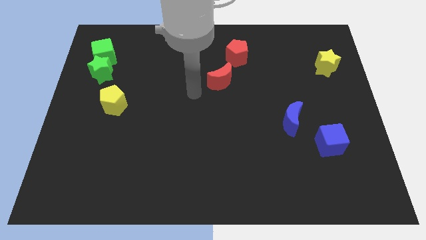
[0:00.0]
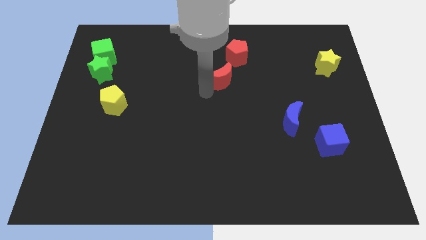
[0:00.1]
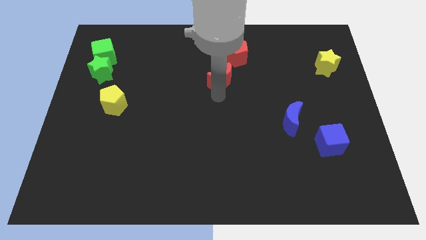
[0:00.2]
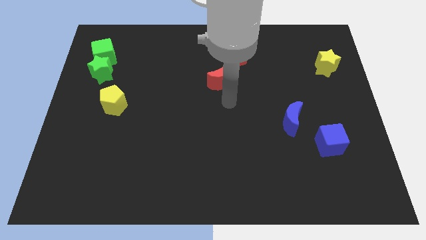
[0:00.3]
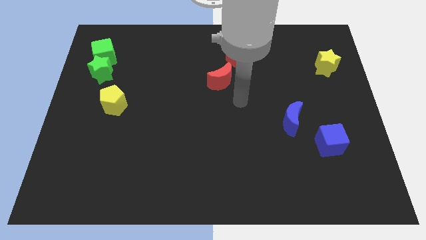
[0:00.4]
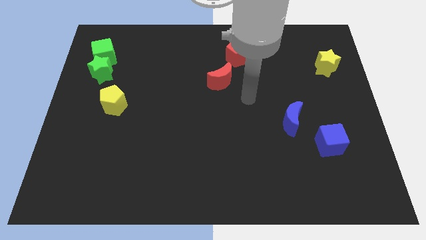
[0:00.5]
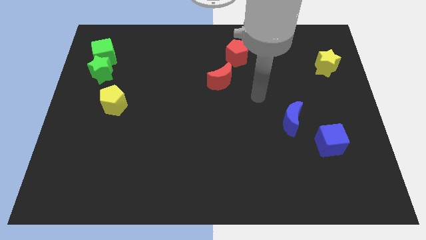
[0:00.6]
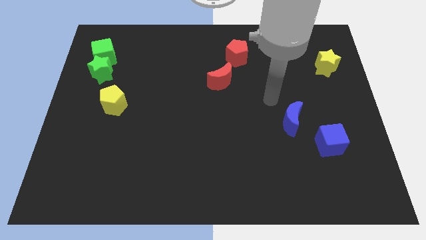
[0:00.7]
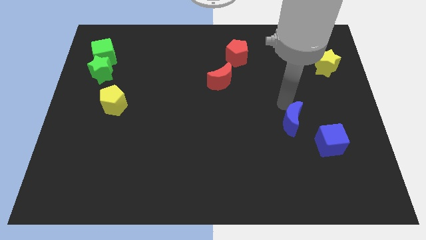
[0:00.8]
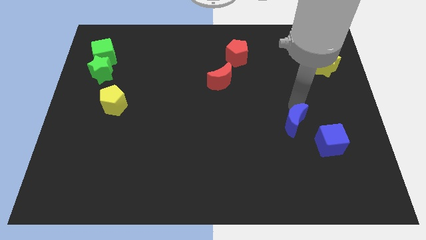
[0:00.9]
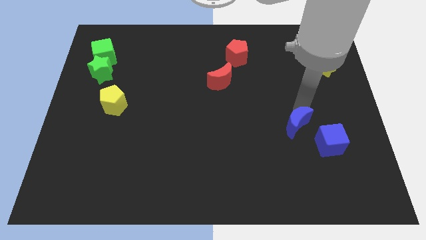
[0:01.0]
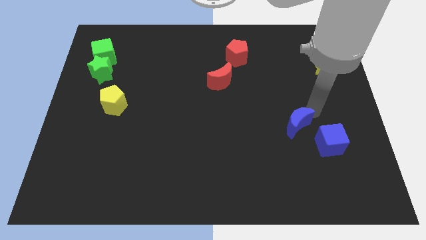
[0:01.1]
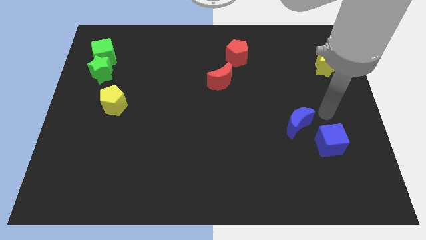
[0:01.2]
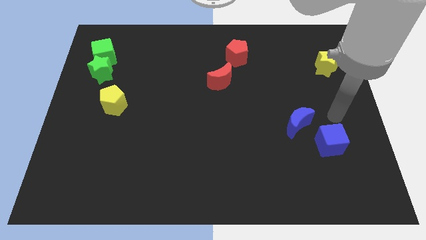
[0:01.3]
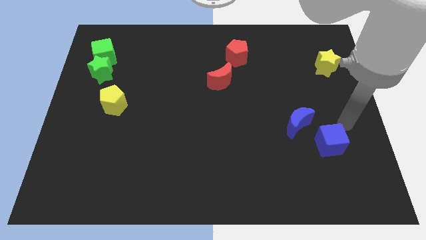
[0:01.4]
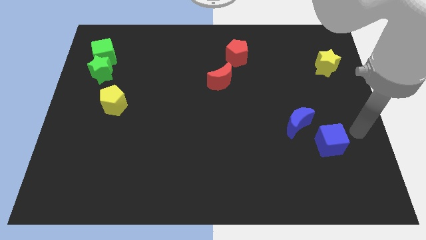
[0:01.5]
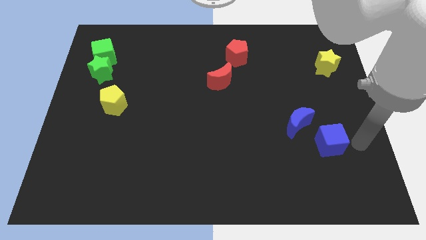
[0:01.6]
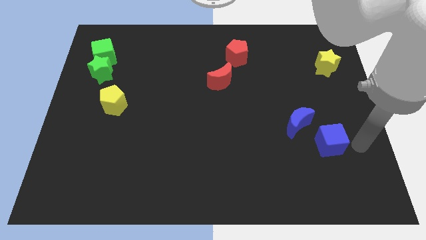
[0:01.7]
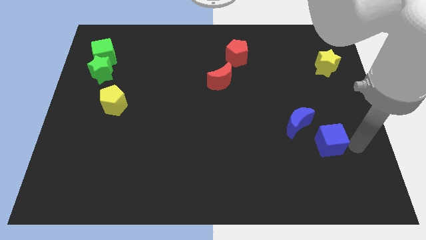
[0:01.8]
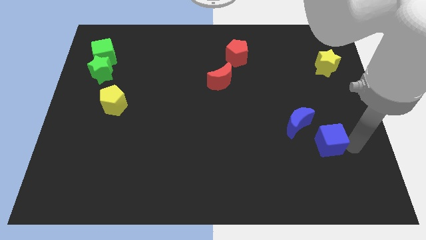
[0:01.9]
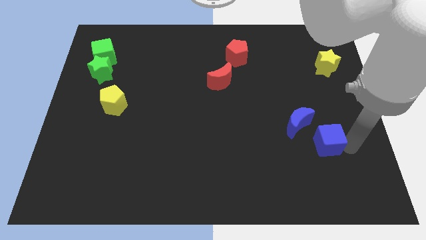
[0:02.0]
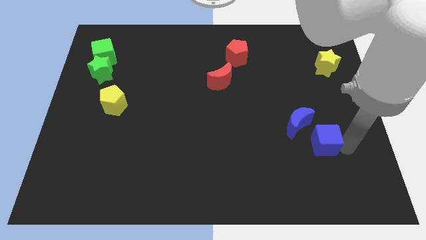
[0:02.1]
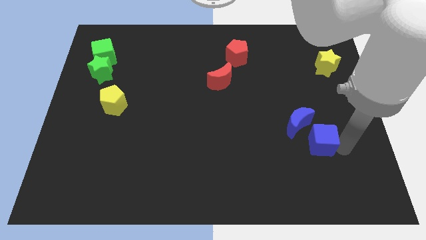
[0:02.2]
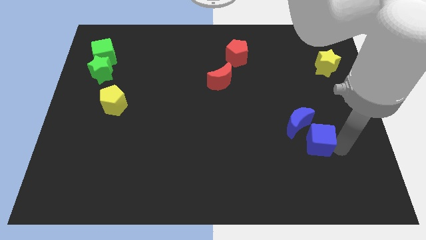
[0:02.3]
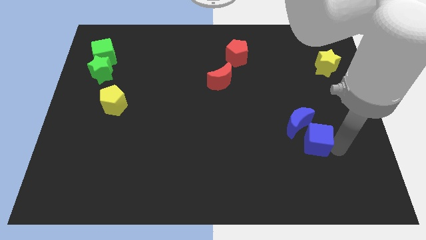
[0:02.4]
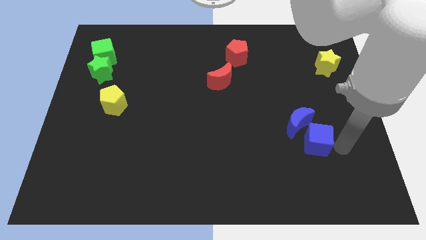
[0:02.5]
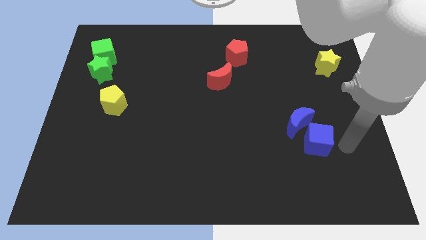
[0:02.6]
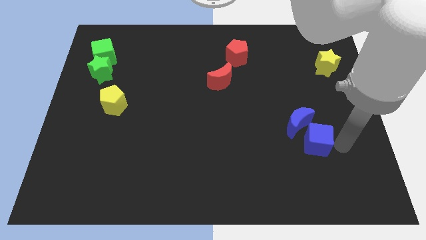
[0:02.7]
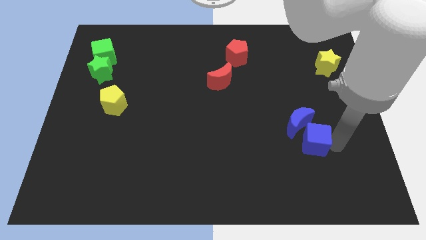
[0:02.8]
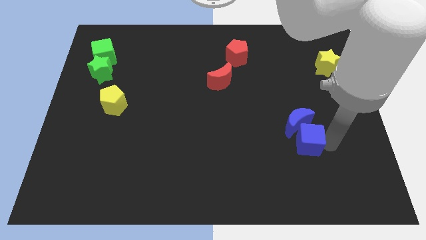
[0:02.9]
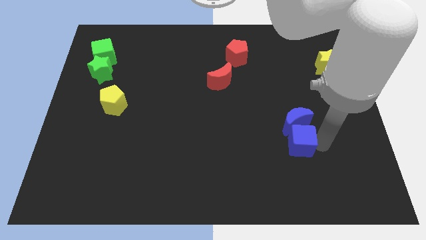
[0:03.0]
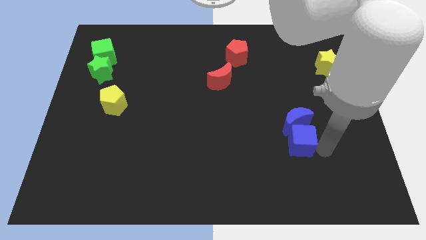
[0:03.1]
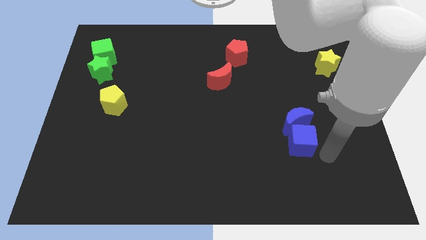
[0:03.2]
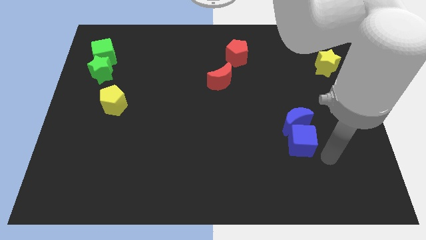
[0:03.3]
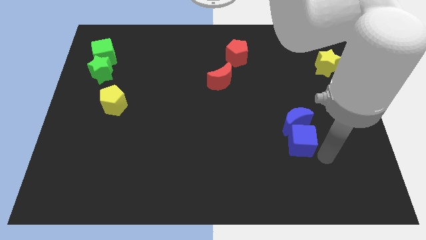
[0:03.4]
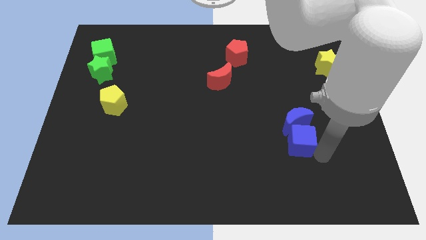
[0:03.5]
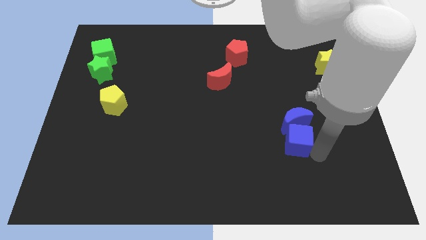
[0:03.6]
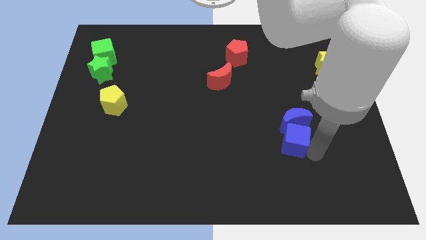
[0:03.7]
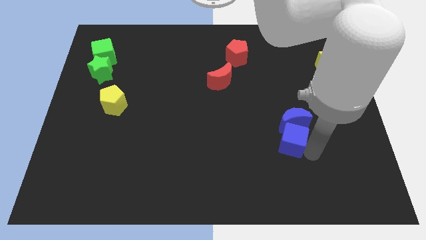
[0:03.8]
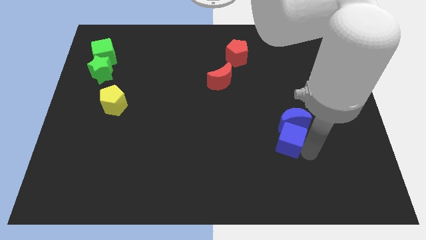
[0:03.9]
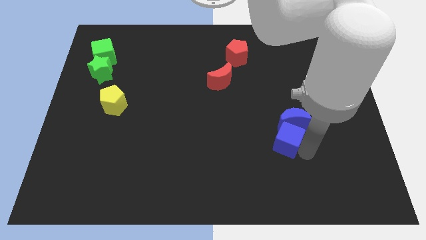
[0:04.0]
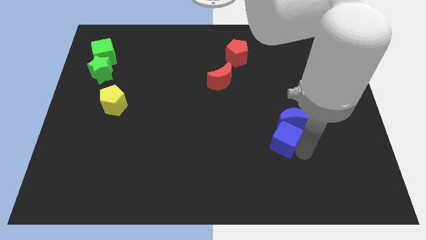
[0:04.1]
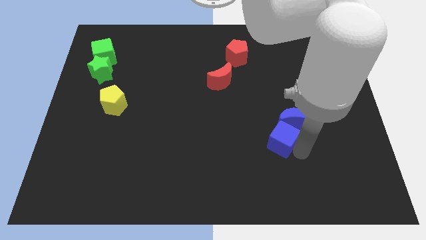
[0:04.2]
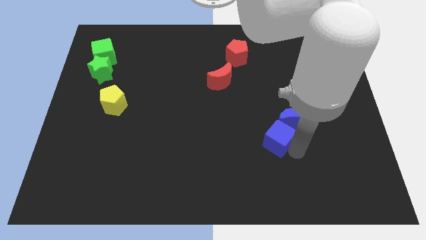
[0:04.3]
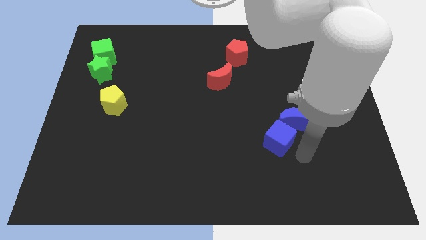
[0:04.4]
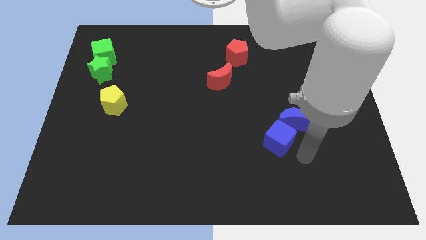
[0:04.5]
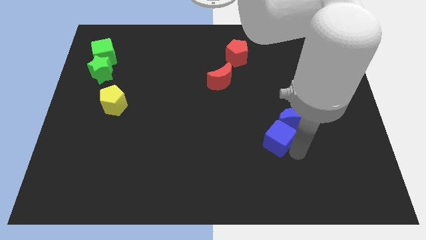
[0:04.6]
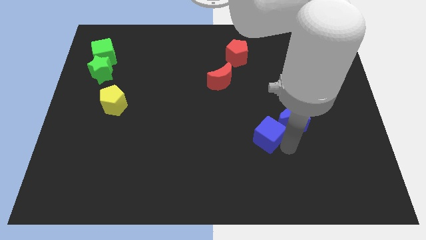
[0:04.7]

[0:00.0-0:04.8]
slide the blue cube to the left side of the blue moon

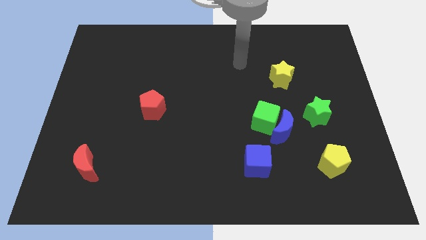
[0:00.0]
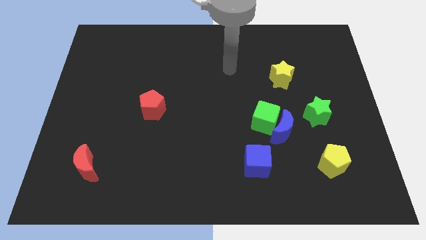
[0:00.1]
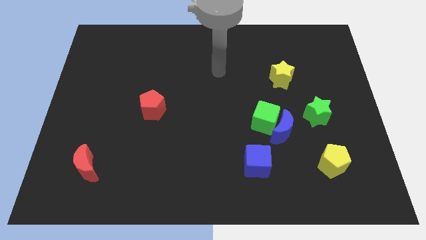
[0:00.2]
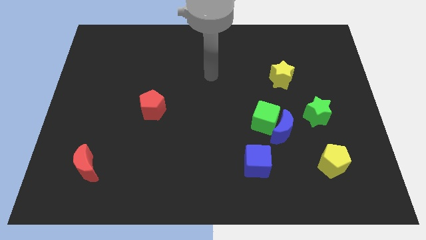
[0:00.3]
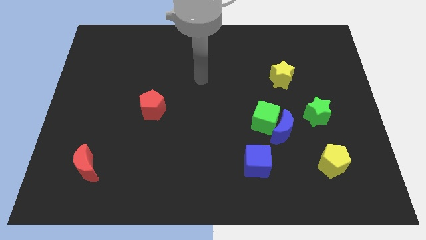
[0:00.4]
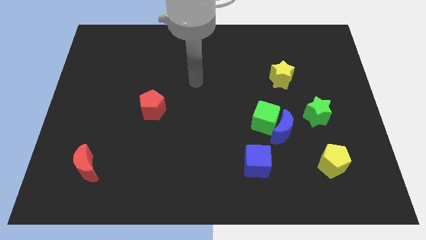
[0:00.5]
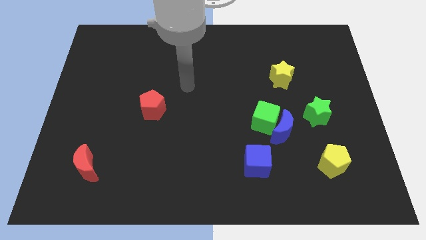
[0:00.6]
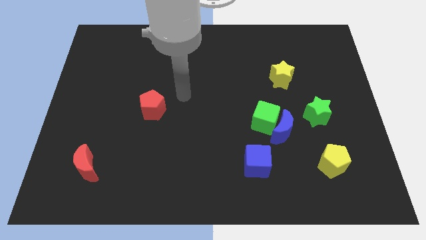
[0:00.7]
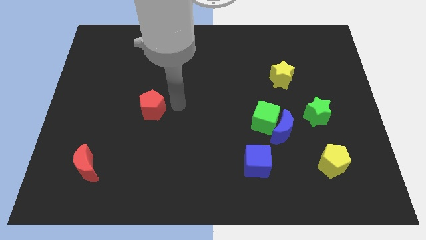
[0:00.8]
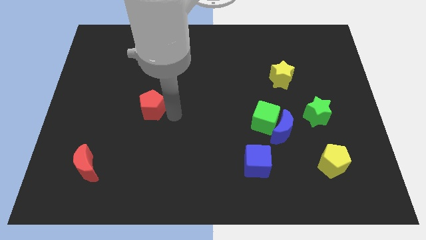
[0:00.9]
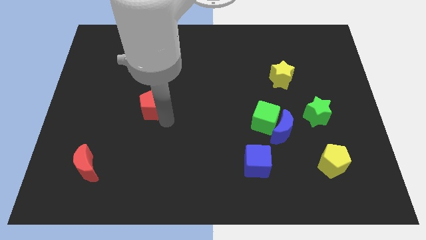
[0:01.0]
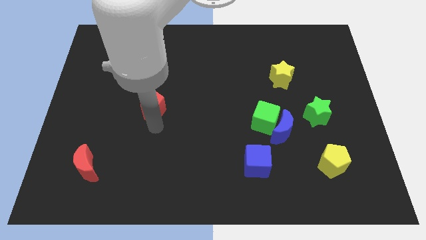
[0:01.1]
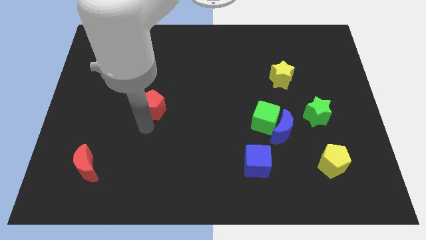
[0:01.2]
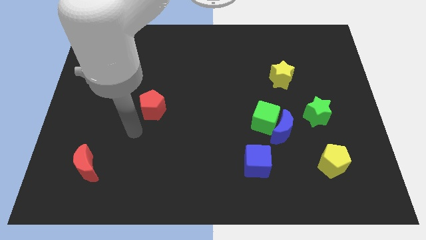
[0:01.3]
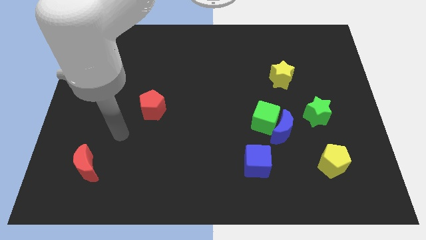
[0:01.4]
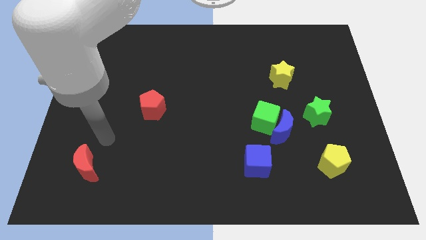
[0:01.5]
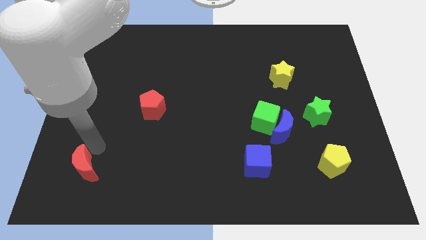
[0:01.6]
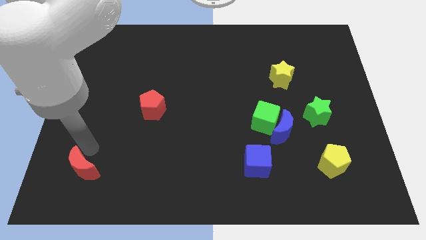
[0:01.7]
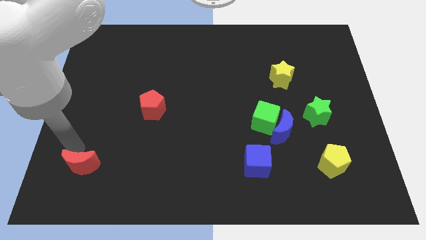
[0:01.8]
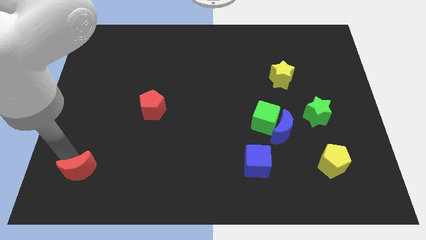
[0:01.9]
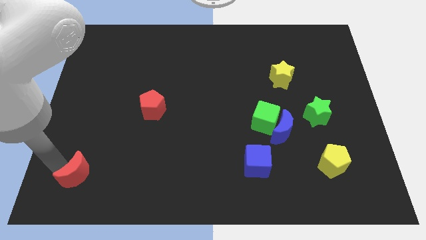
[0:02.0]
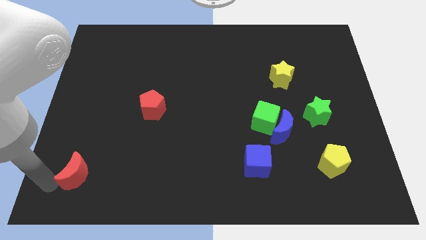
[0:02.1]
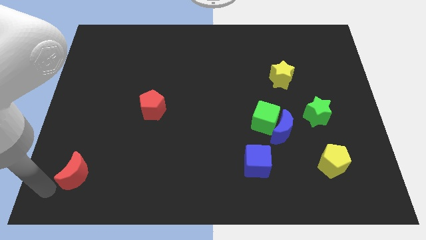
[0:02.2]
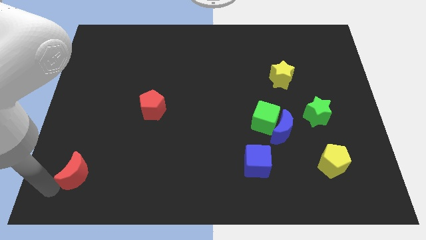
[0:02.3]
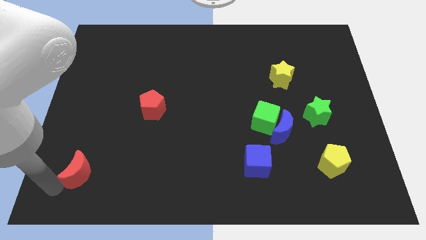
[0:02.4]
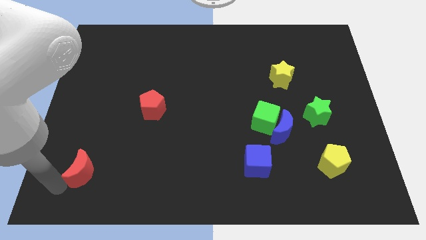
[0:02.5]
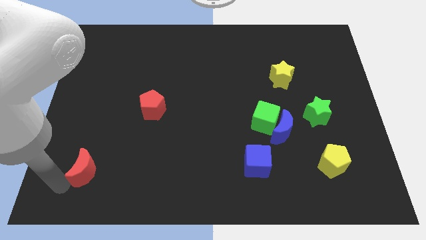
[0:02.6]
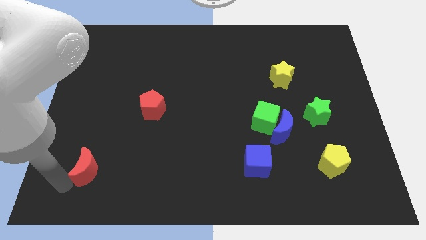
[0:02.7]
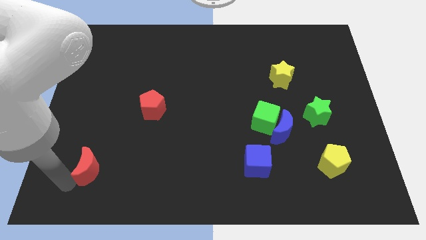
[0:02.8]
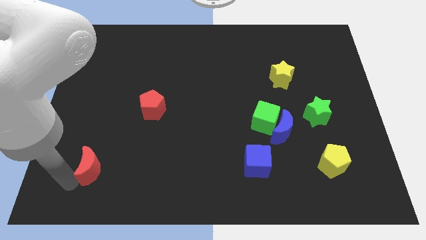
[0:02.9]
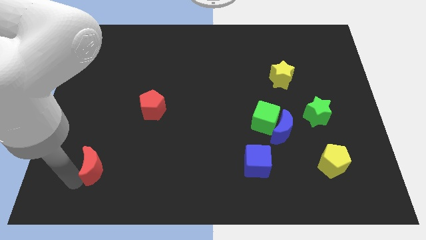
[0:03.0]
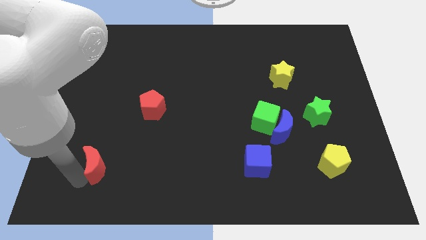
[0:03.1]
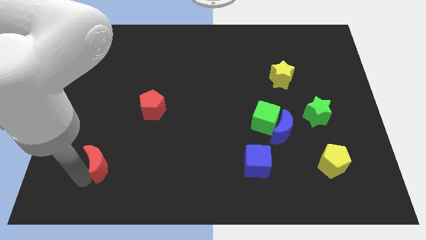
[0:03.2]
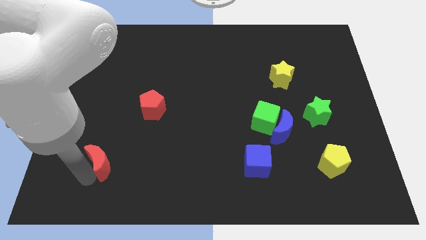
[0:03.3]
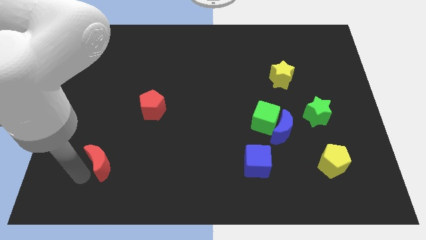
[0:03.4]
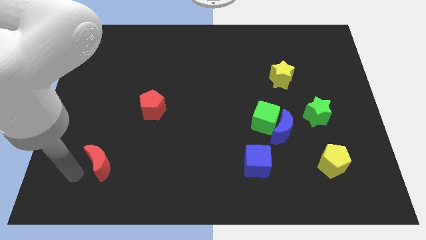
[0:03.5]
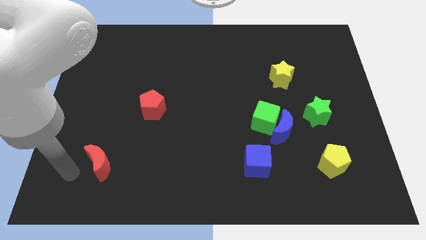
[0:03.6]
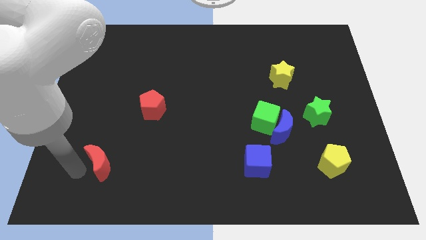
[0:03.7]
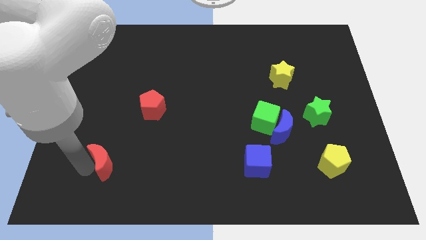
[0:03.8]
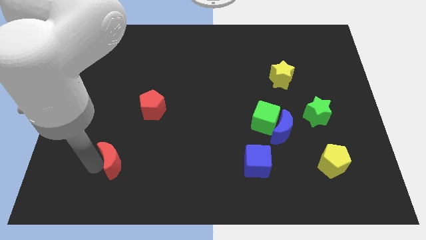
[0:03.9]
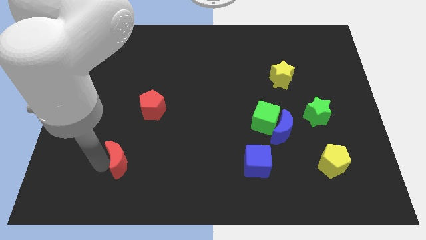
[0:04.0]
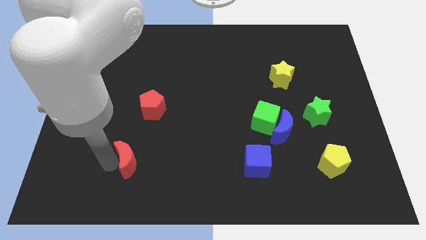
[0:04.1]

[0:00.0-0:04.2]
slide the red moon to the bottom side of the red pentagon
